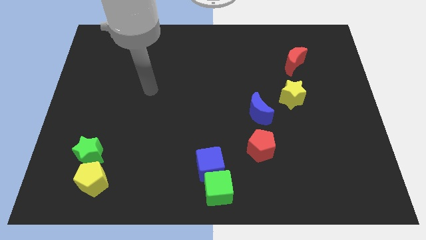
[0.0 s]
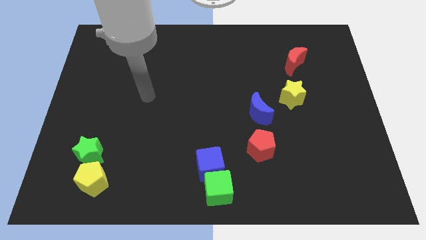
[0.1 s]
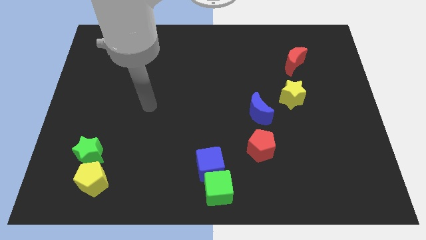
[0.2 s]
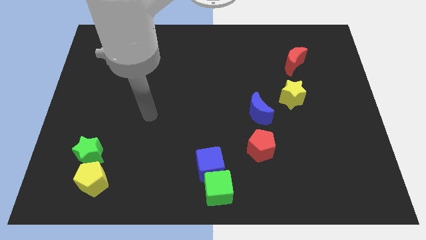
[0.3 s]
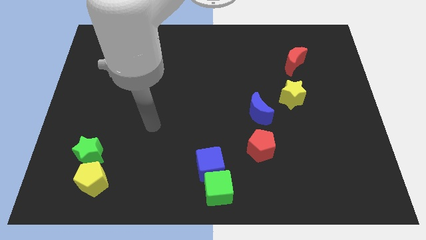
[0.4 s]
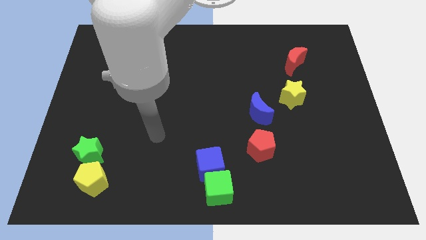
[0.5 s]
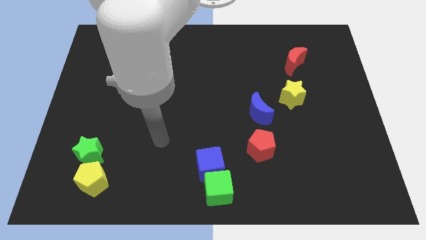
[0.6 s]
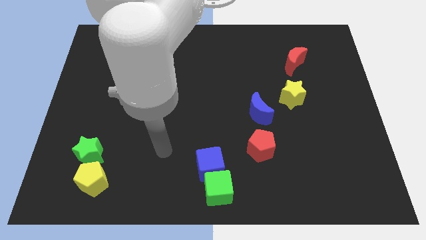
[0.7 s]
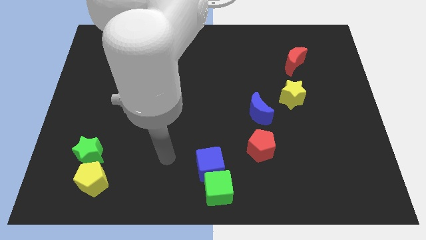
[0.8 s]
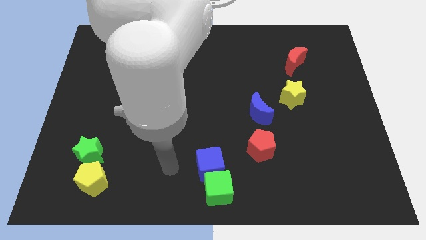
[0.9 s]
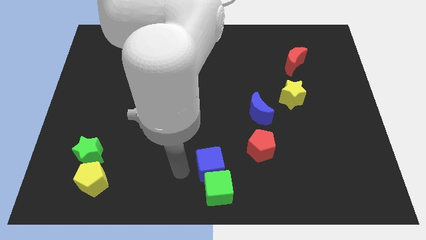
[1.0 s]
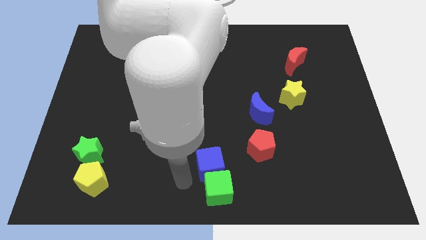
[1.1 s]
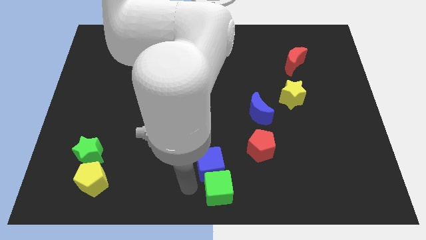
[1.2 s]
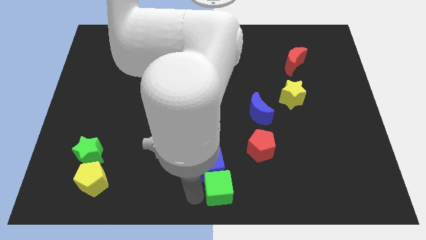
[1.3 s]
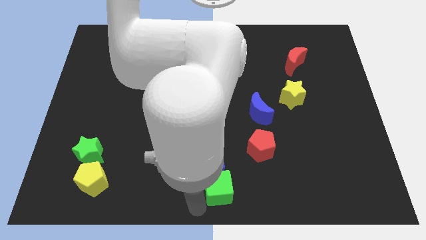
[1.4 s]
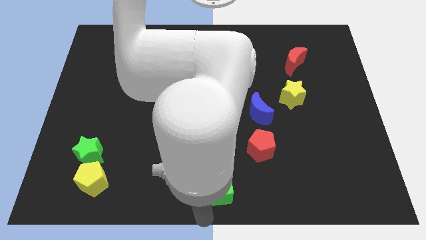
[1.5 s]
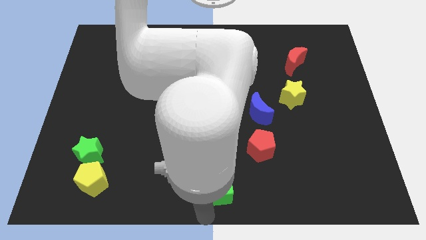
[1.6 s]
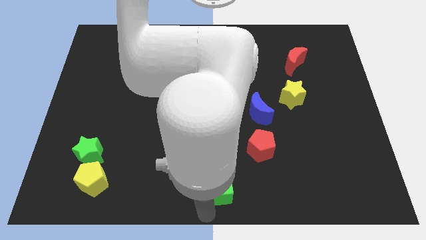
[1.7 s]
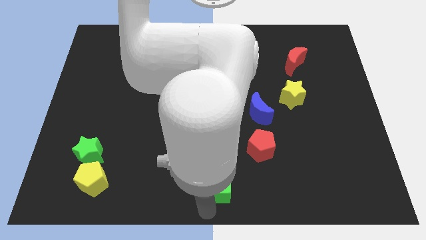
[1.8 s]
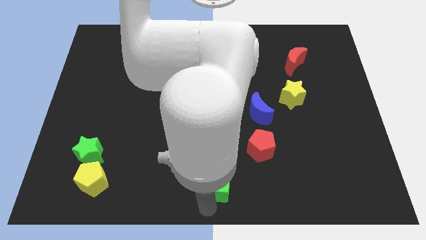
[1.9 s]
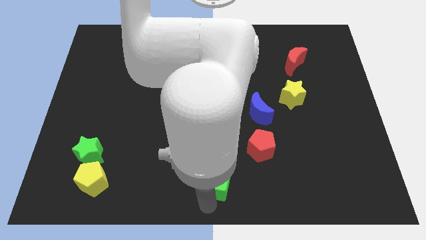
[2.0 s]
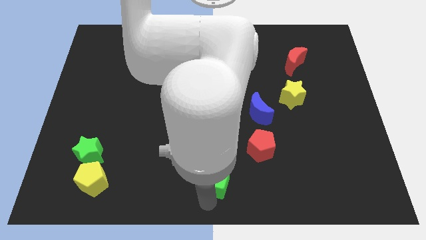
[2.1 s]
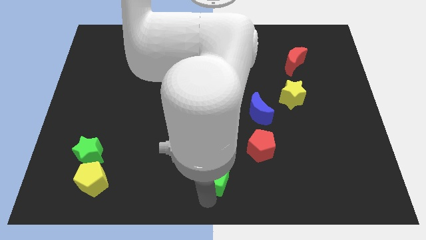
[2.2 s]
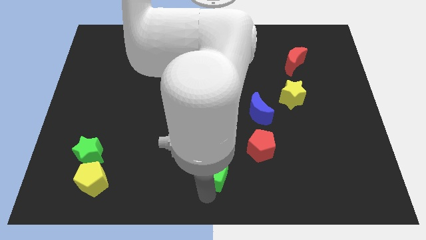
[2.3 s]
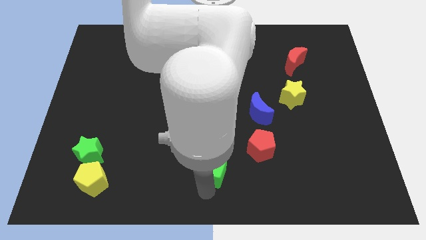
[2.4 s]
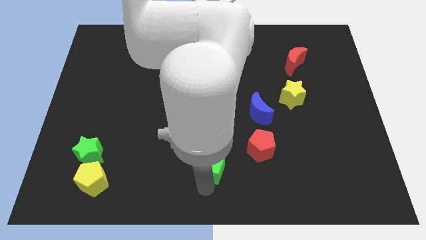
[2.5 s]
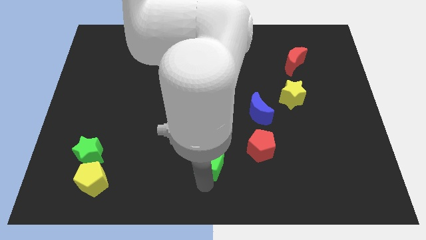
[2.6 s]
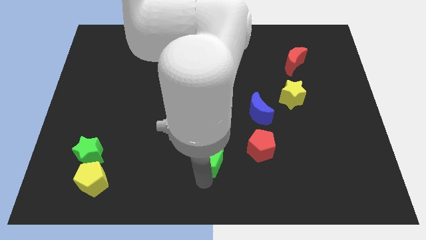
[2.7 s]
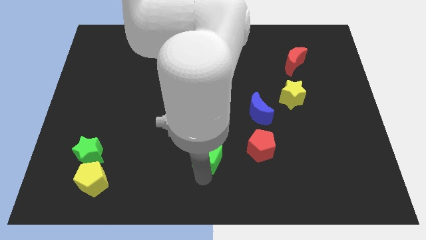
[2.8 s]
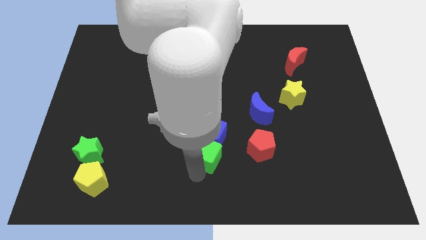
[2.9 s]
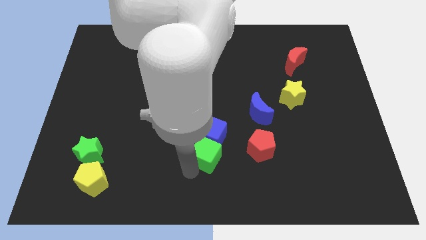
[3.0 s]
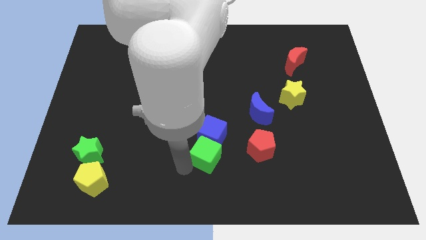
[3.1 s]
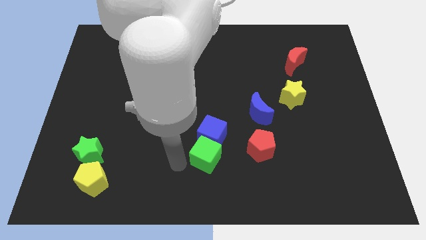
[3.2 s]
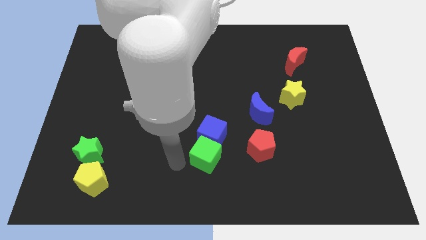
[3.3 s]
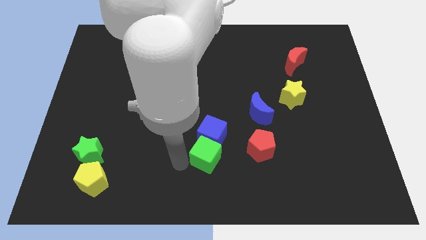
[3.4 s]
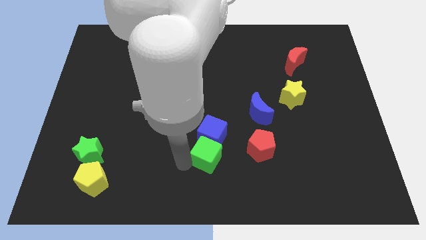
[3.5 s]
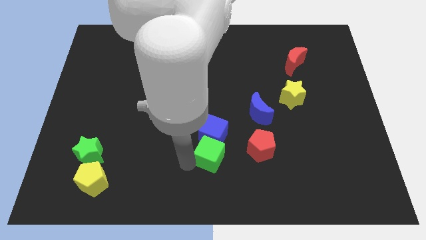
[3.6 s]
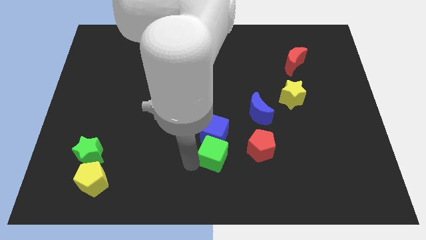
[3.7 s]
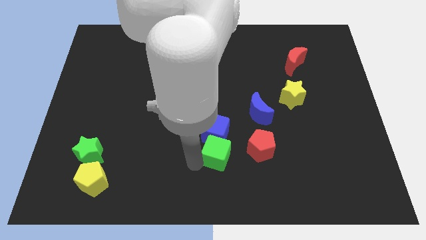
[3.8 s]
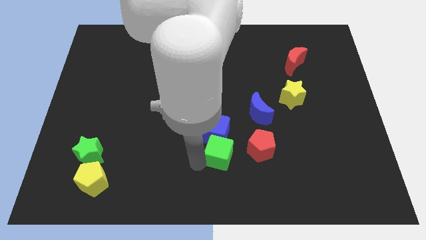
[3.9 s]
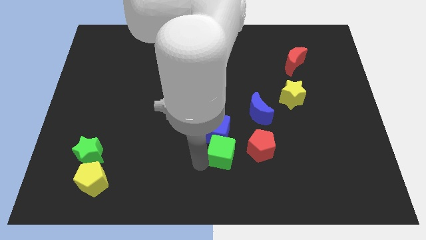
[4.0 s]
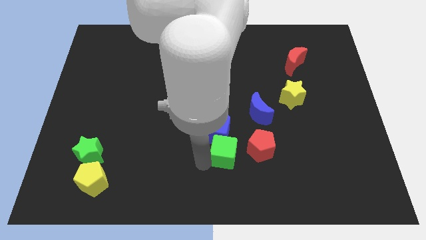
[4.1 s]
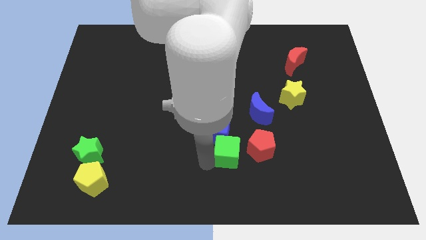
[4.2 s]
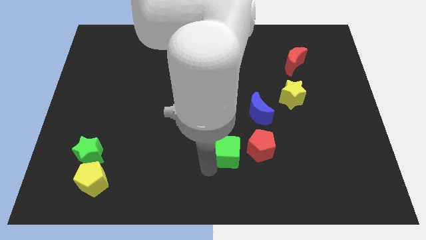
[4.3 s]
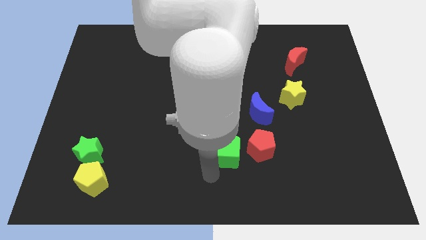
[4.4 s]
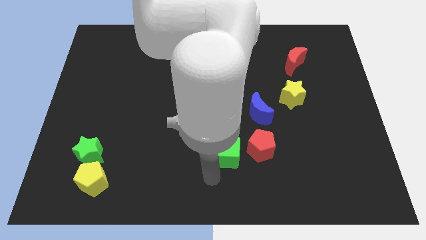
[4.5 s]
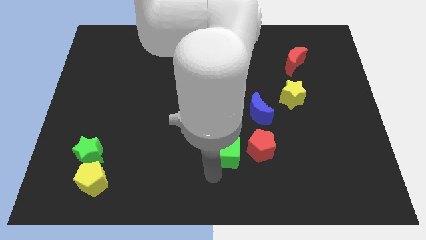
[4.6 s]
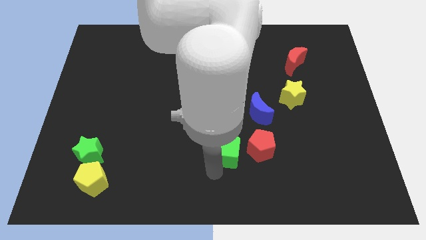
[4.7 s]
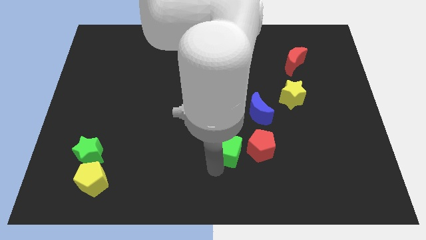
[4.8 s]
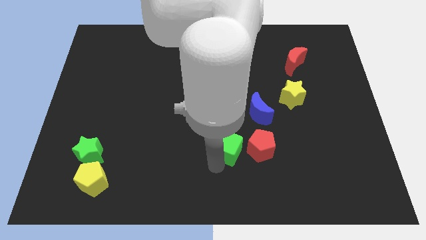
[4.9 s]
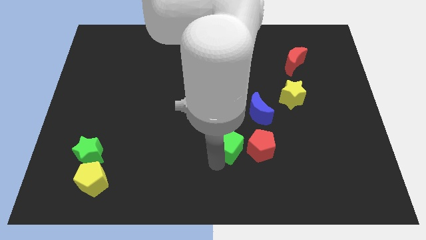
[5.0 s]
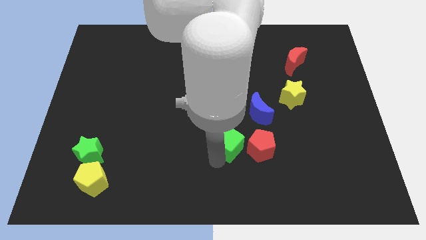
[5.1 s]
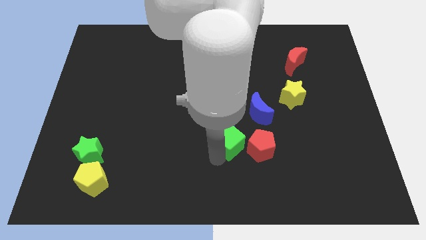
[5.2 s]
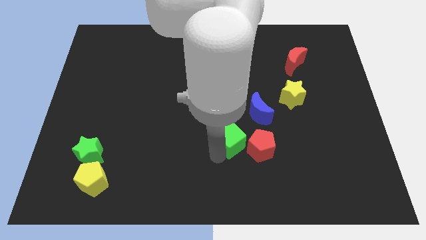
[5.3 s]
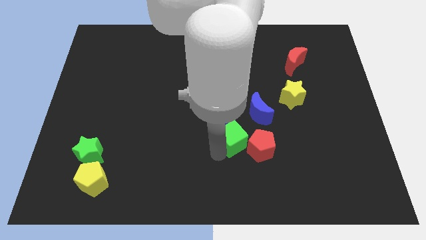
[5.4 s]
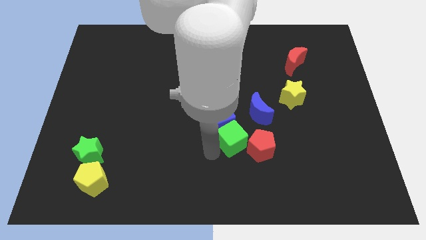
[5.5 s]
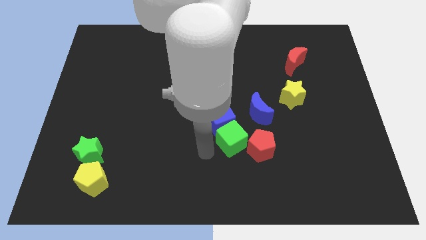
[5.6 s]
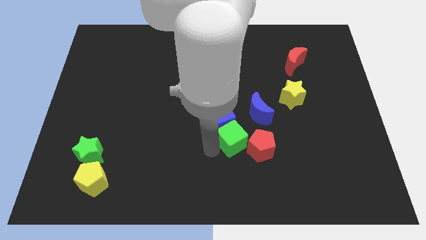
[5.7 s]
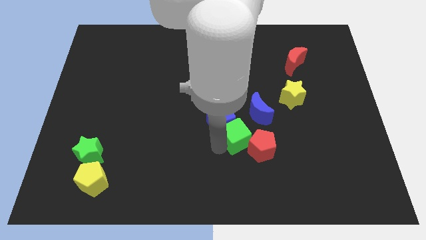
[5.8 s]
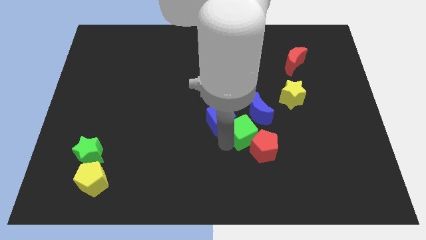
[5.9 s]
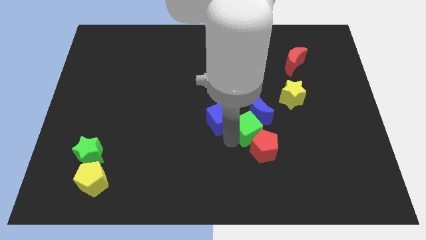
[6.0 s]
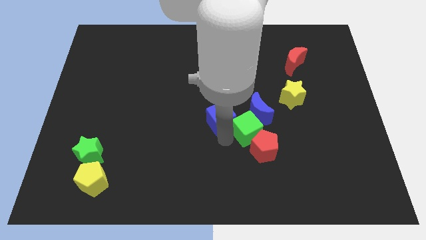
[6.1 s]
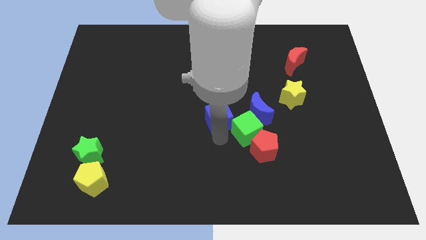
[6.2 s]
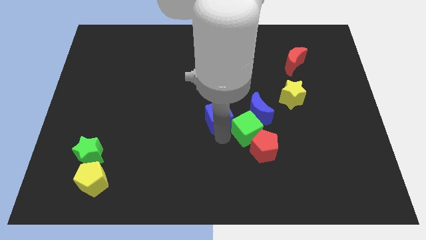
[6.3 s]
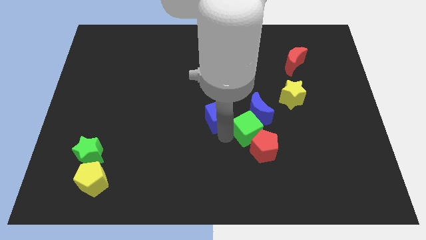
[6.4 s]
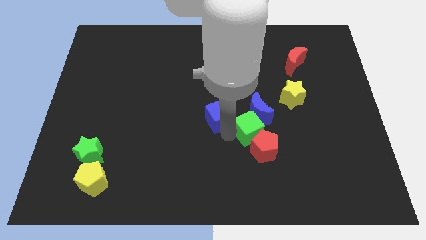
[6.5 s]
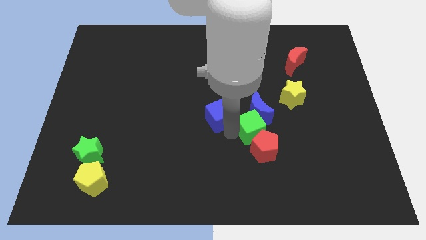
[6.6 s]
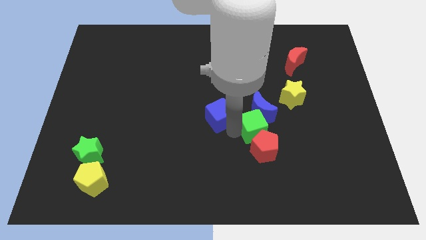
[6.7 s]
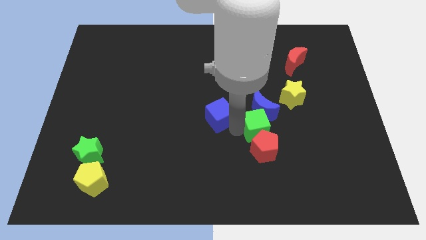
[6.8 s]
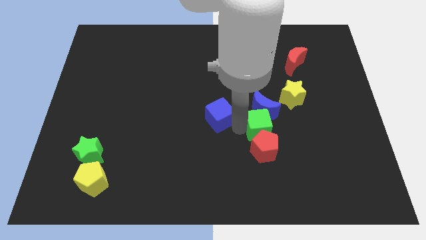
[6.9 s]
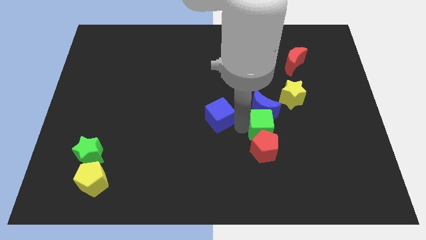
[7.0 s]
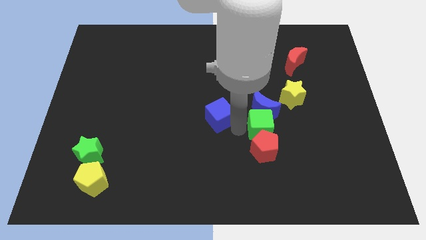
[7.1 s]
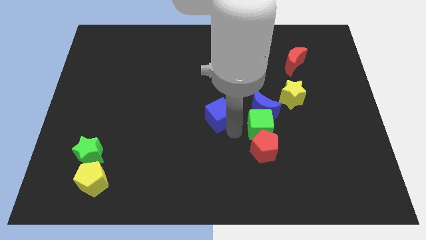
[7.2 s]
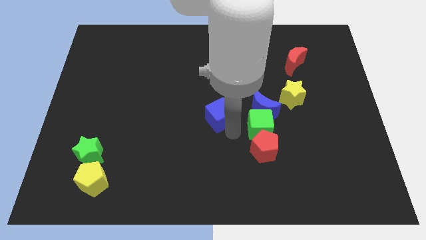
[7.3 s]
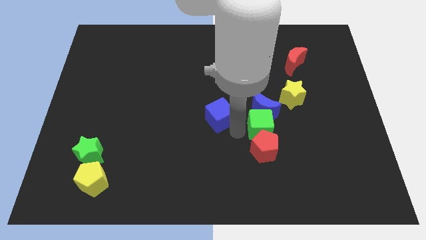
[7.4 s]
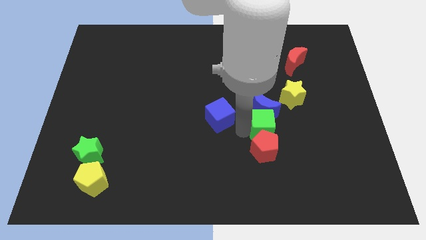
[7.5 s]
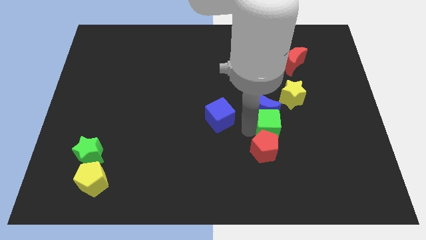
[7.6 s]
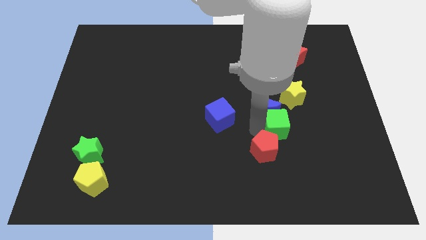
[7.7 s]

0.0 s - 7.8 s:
push the green cube upwards and right

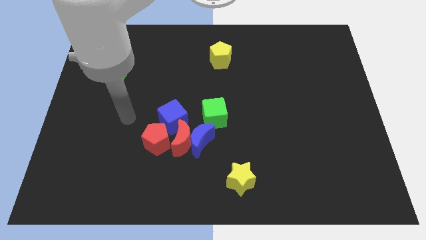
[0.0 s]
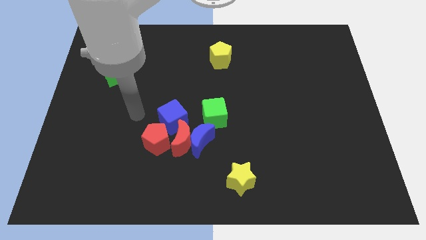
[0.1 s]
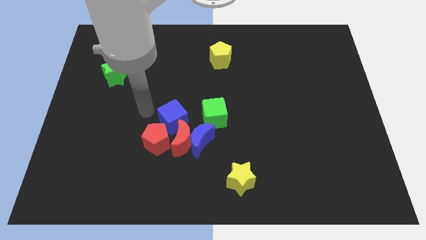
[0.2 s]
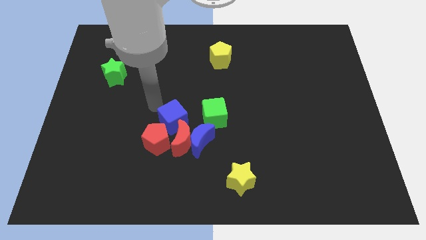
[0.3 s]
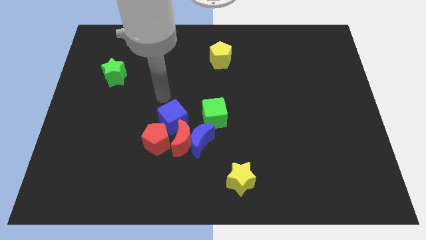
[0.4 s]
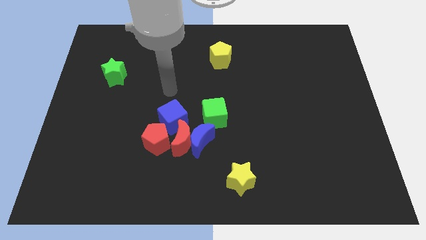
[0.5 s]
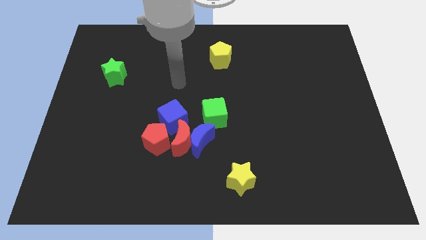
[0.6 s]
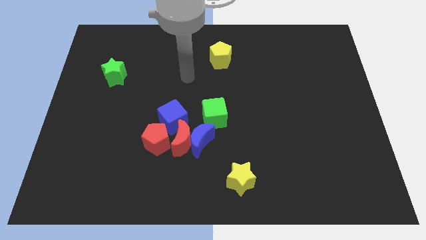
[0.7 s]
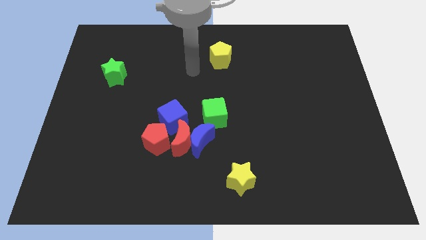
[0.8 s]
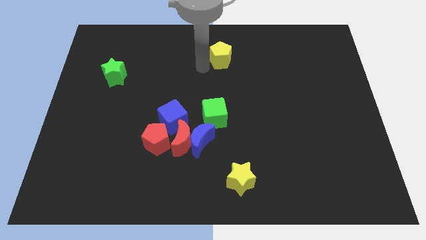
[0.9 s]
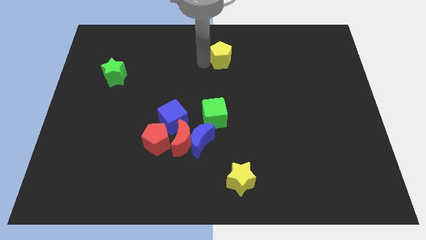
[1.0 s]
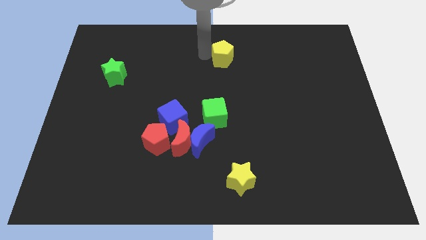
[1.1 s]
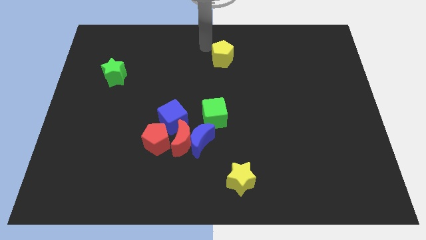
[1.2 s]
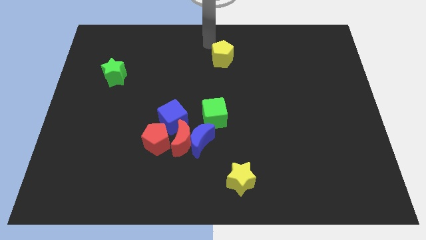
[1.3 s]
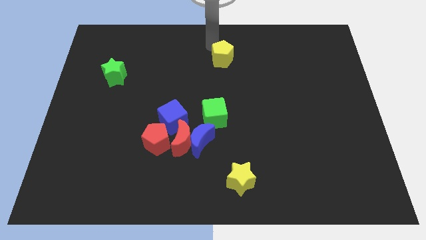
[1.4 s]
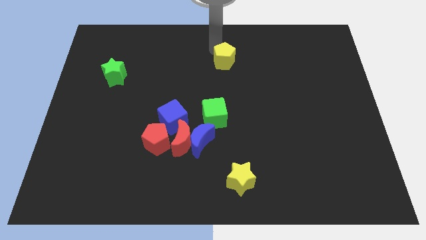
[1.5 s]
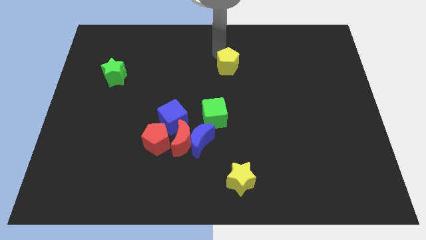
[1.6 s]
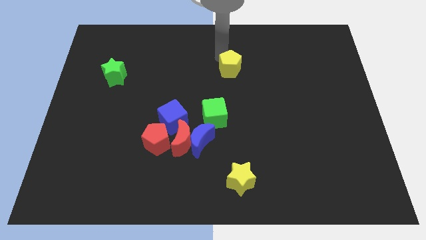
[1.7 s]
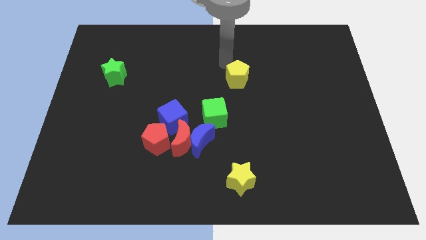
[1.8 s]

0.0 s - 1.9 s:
move the yellow pentagon downwards and then right somewhat
